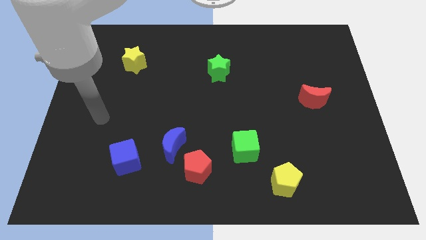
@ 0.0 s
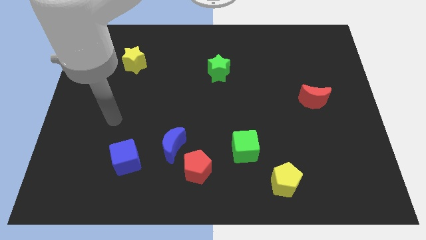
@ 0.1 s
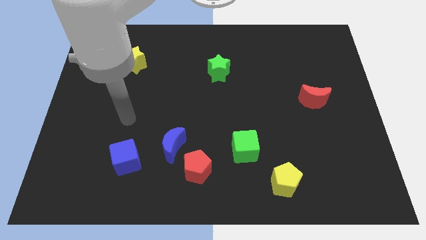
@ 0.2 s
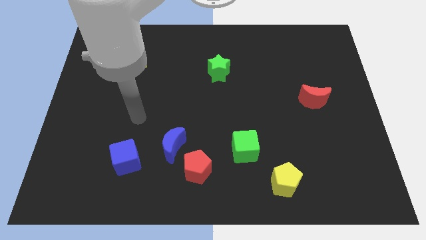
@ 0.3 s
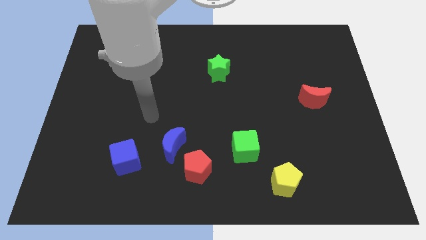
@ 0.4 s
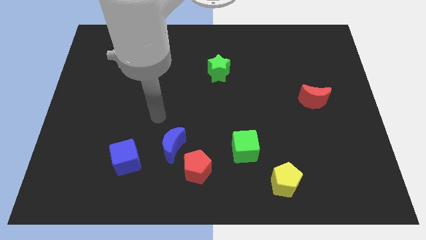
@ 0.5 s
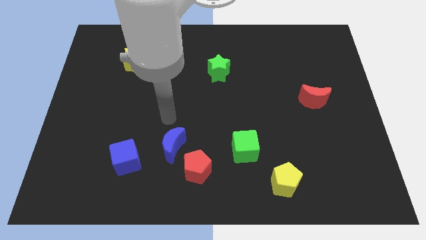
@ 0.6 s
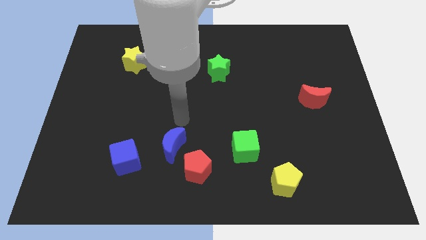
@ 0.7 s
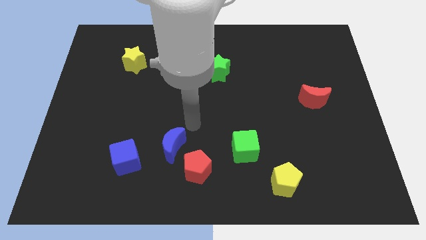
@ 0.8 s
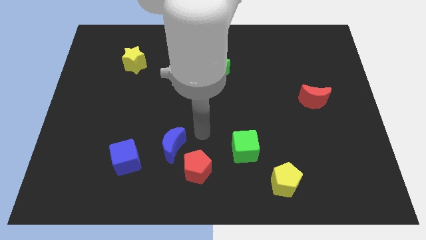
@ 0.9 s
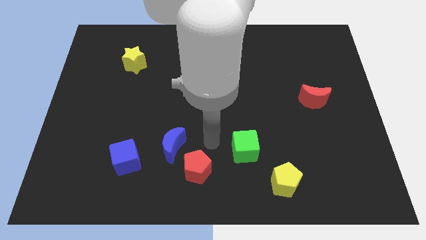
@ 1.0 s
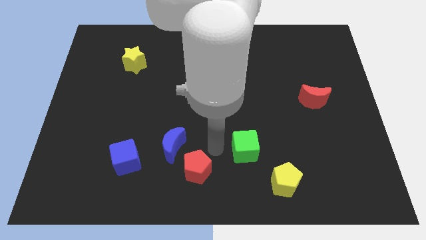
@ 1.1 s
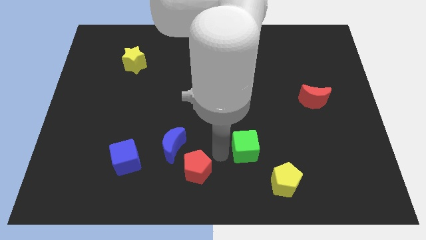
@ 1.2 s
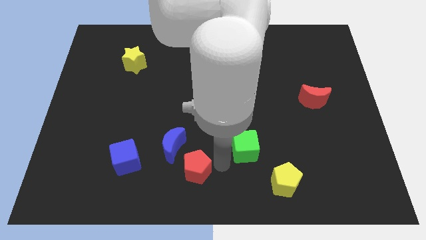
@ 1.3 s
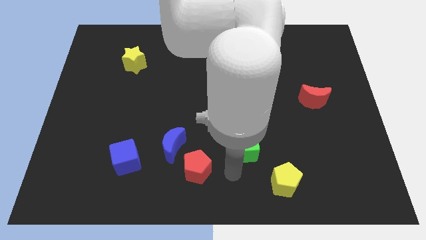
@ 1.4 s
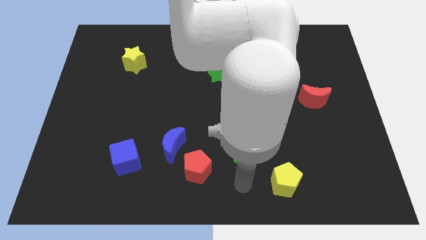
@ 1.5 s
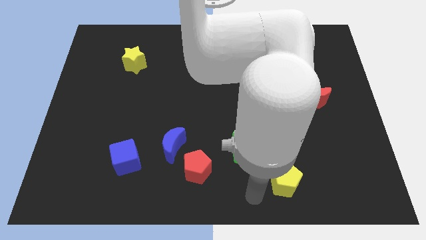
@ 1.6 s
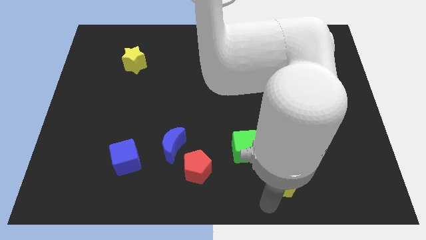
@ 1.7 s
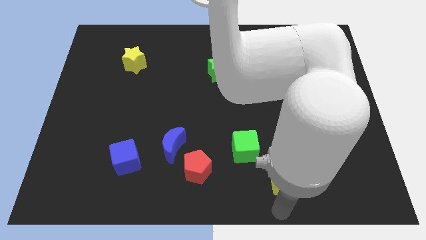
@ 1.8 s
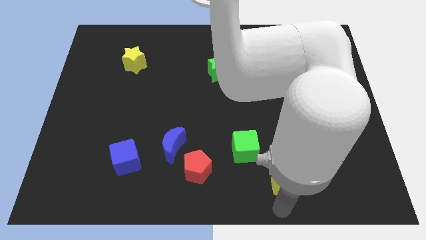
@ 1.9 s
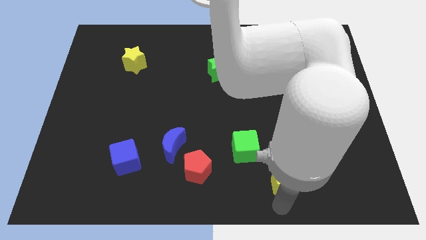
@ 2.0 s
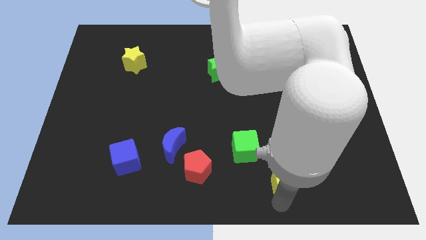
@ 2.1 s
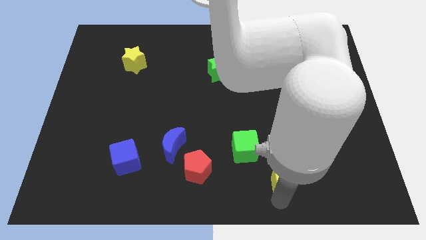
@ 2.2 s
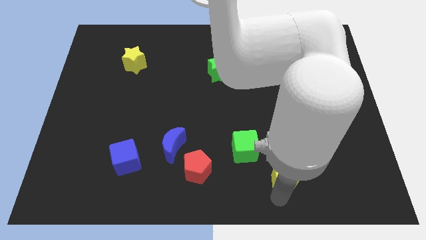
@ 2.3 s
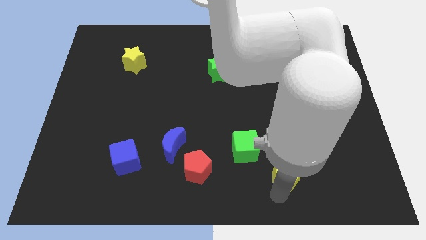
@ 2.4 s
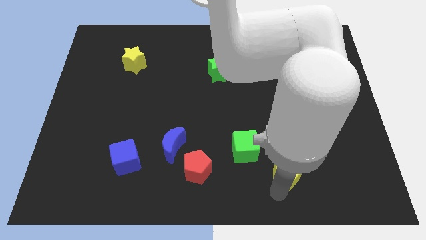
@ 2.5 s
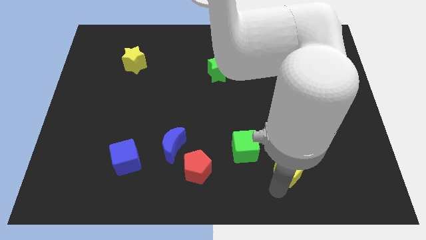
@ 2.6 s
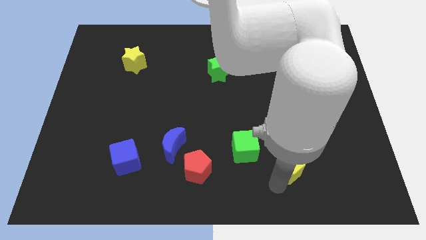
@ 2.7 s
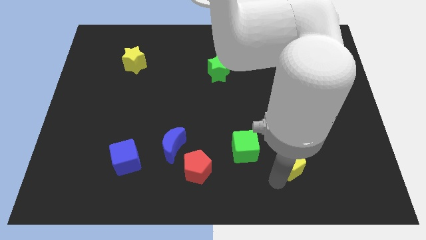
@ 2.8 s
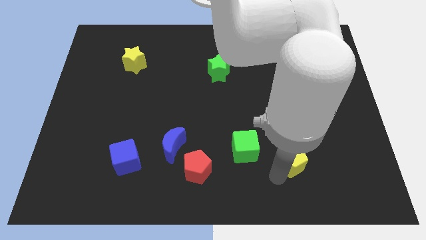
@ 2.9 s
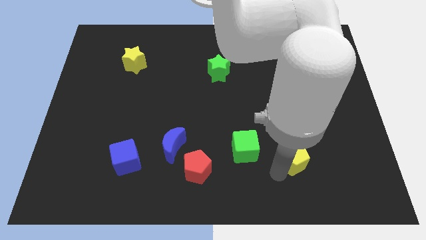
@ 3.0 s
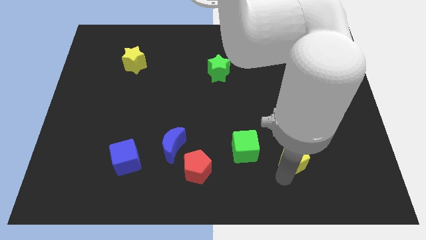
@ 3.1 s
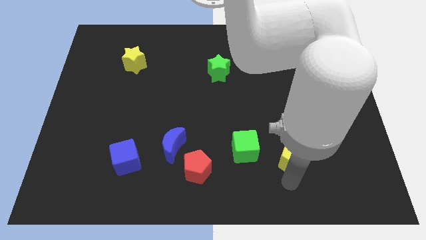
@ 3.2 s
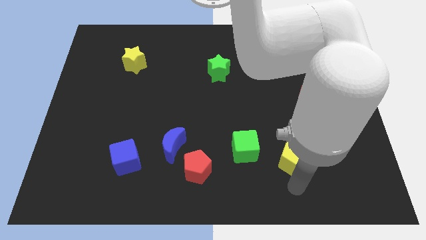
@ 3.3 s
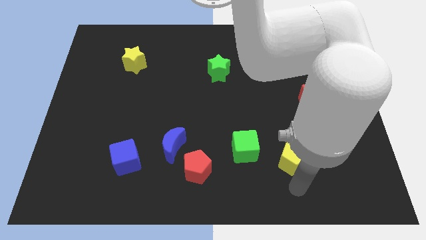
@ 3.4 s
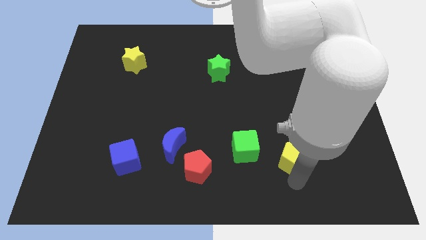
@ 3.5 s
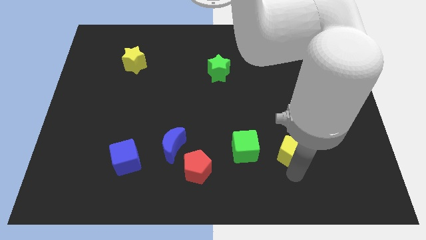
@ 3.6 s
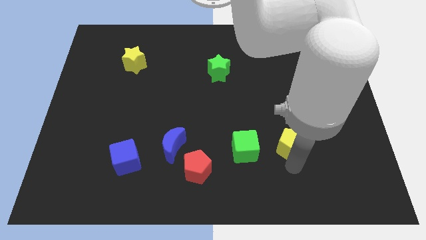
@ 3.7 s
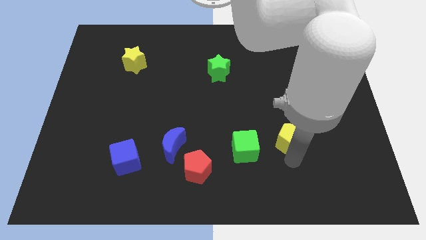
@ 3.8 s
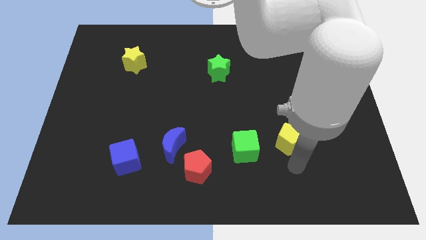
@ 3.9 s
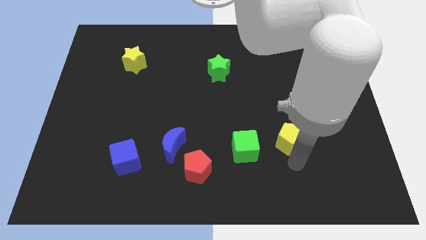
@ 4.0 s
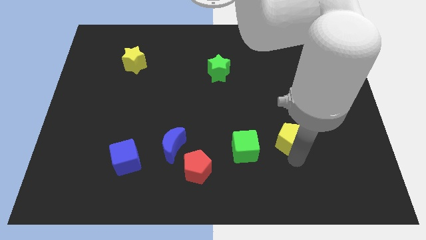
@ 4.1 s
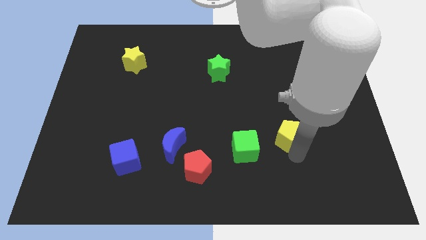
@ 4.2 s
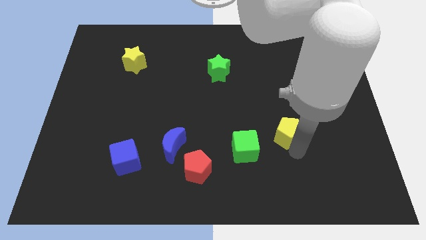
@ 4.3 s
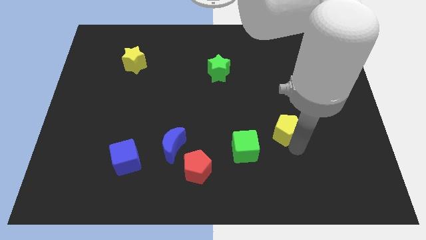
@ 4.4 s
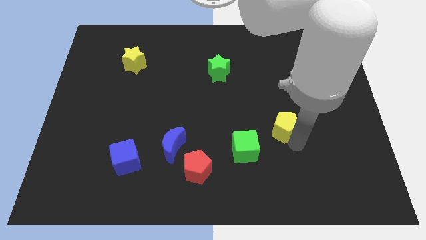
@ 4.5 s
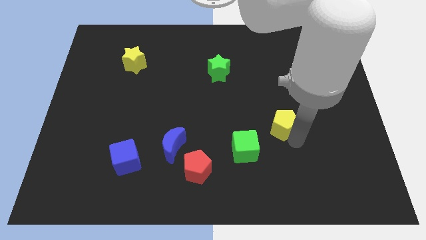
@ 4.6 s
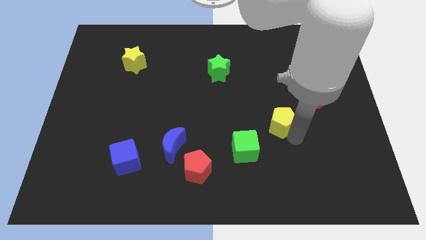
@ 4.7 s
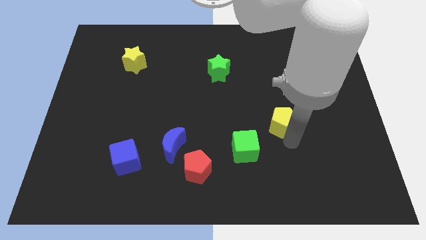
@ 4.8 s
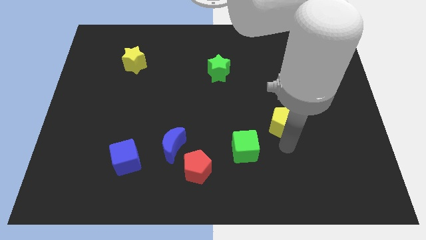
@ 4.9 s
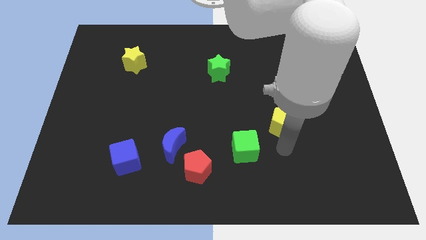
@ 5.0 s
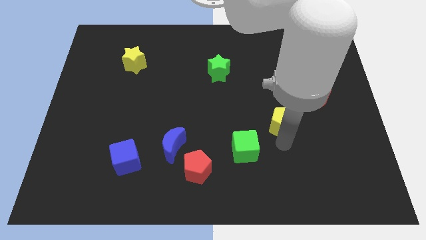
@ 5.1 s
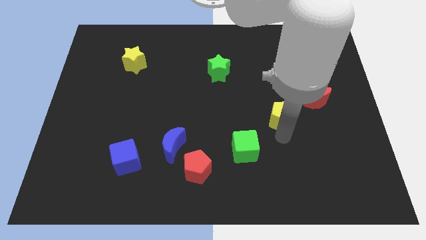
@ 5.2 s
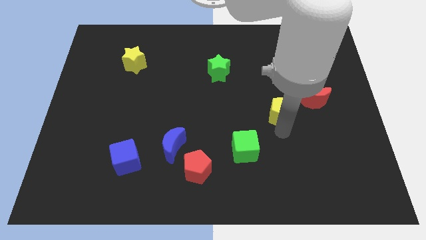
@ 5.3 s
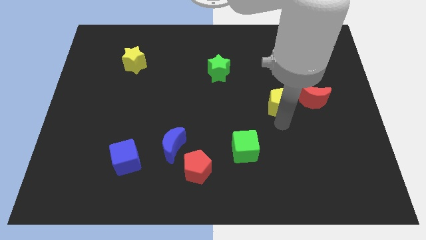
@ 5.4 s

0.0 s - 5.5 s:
move the yellow pentagon upwards

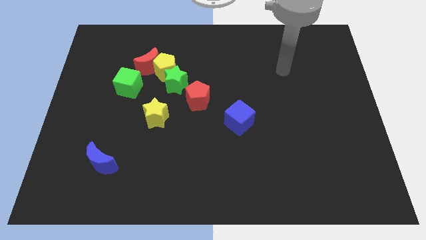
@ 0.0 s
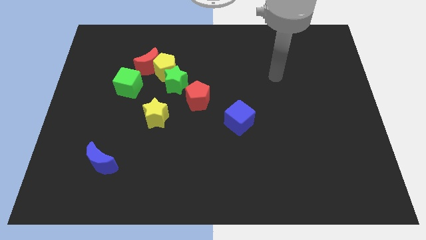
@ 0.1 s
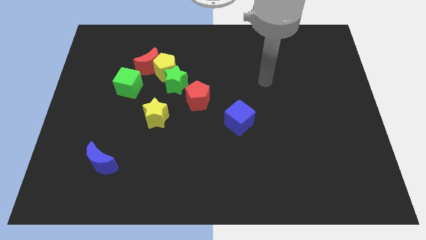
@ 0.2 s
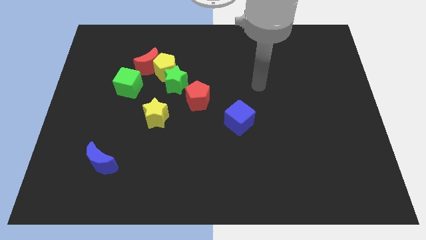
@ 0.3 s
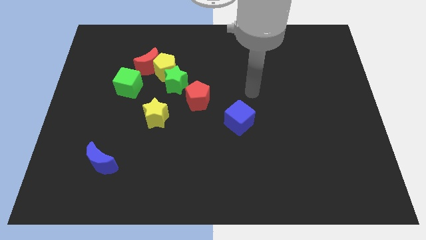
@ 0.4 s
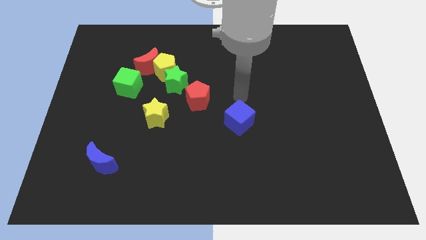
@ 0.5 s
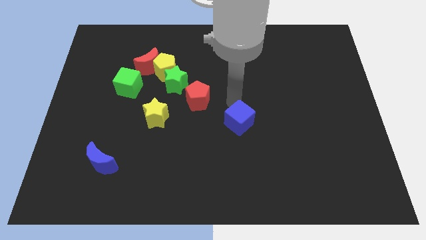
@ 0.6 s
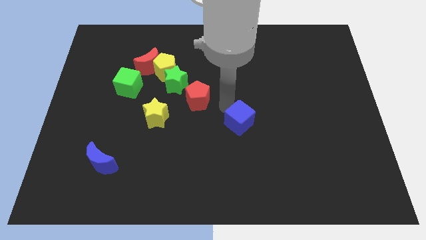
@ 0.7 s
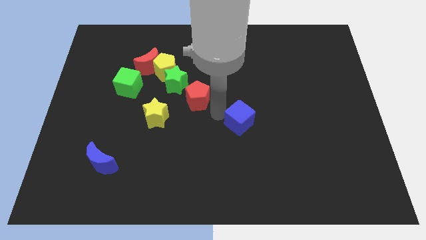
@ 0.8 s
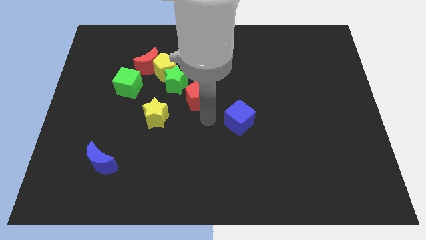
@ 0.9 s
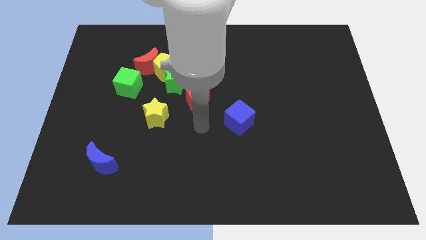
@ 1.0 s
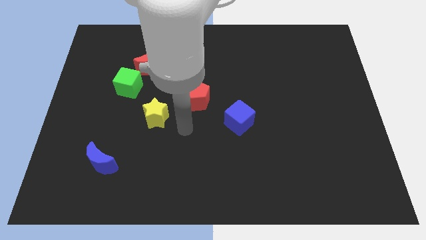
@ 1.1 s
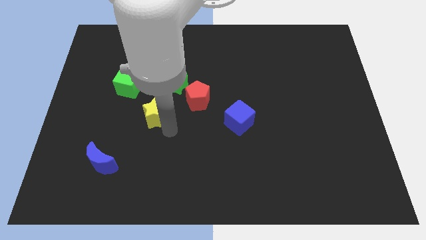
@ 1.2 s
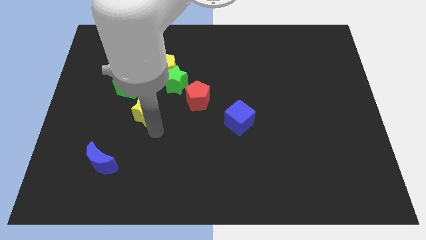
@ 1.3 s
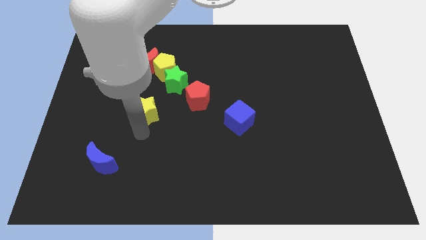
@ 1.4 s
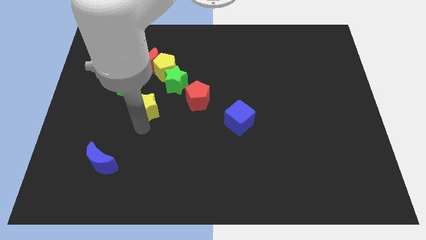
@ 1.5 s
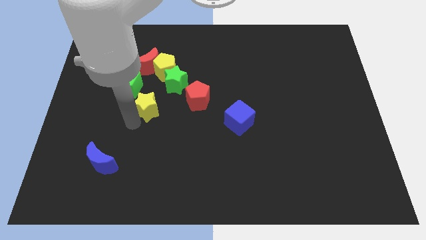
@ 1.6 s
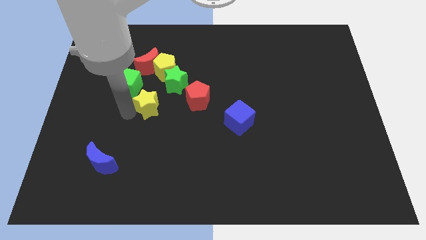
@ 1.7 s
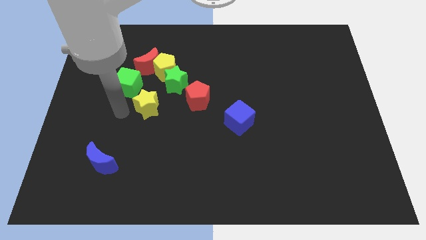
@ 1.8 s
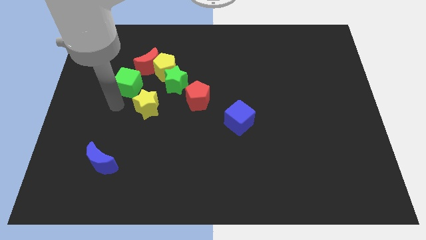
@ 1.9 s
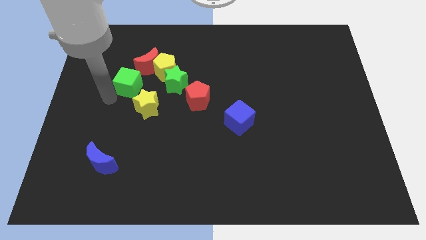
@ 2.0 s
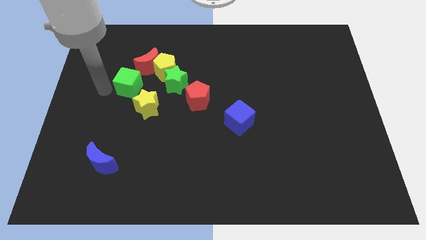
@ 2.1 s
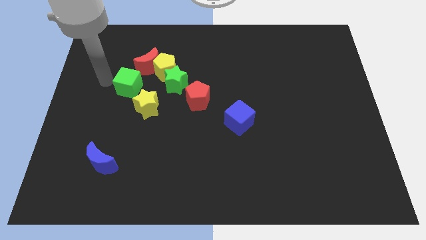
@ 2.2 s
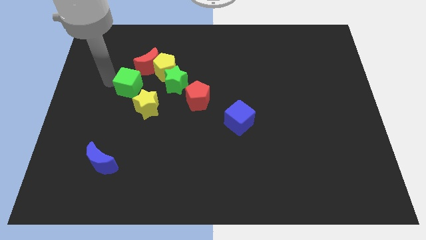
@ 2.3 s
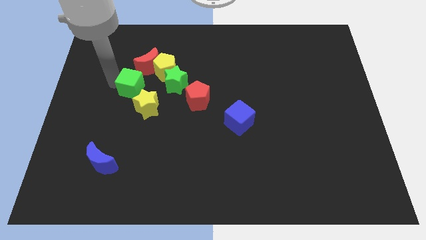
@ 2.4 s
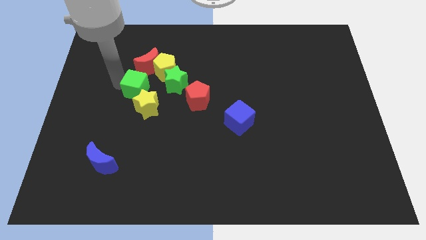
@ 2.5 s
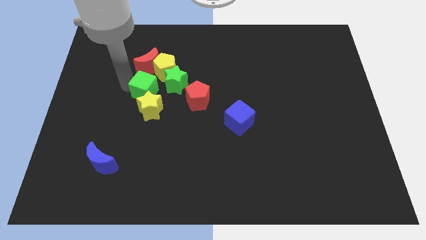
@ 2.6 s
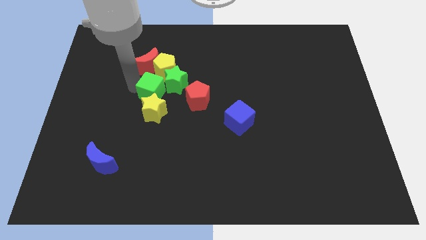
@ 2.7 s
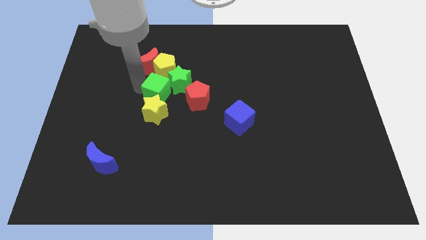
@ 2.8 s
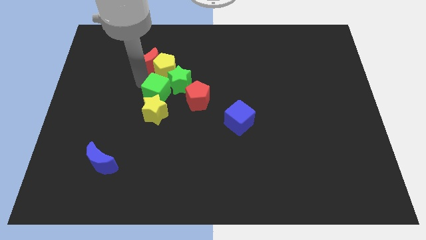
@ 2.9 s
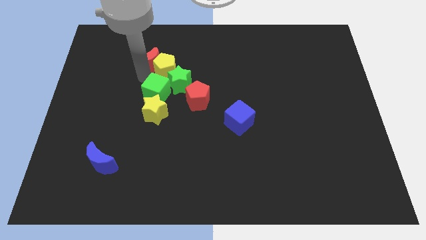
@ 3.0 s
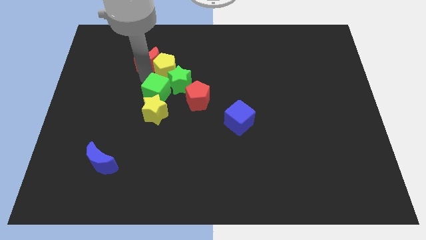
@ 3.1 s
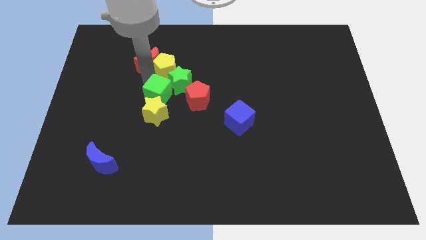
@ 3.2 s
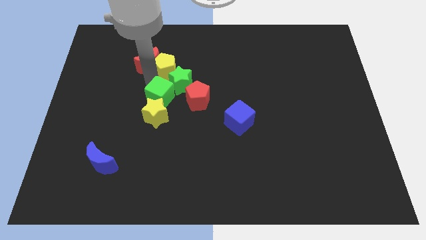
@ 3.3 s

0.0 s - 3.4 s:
move the green cube down and right diagonally somewhat
